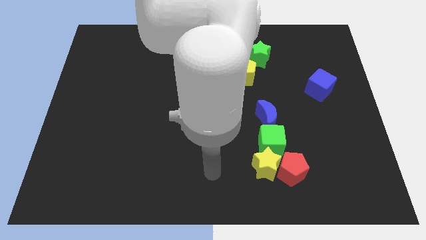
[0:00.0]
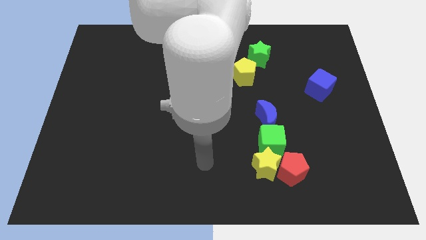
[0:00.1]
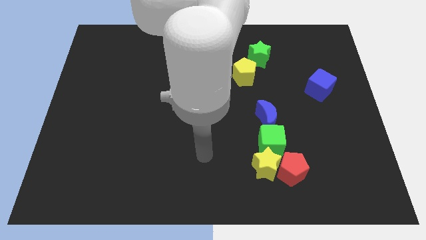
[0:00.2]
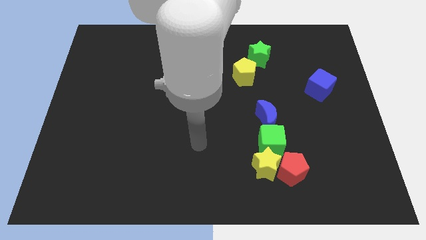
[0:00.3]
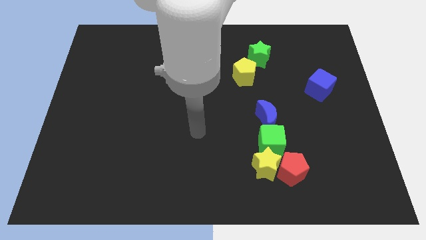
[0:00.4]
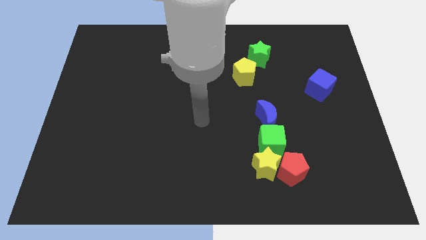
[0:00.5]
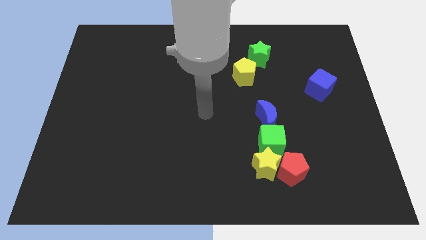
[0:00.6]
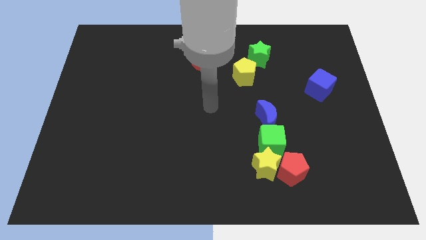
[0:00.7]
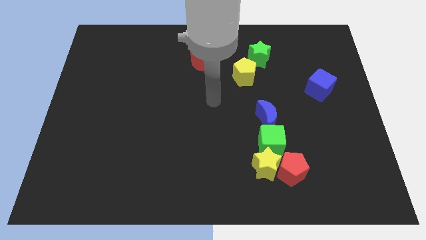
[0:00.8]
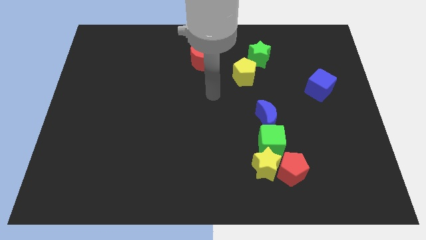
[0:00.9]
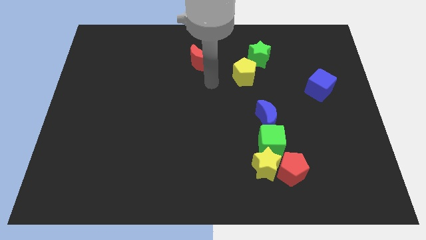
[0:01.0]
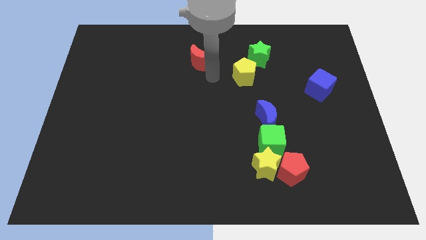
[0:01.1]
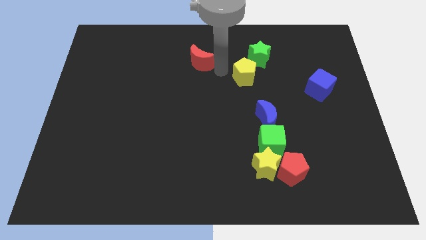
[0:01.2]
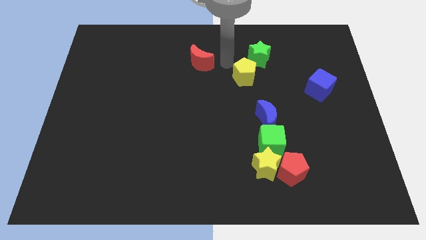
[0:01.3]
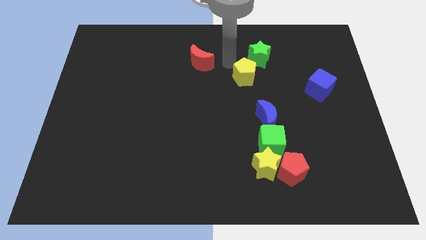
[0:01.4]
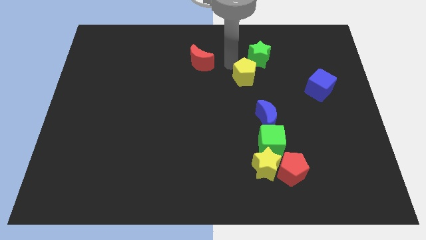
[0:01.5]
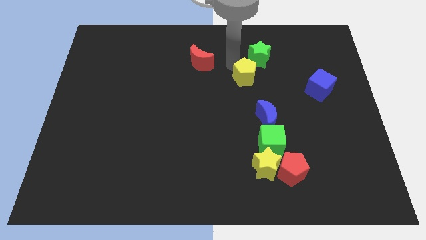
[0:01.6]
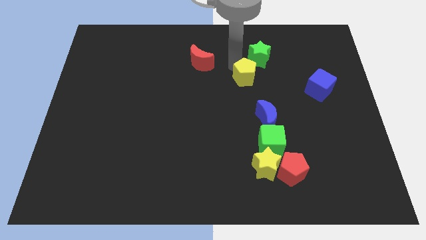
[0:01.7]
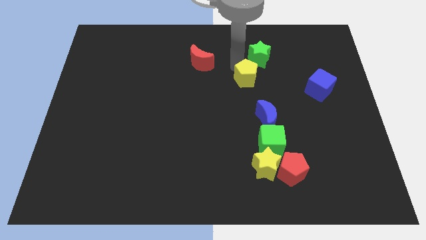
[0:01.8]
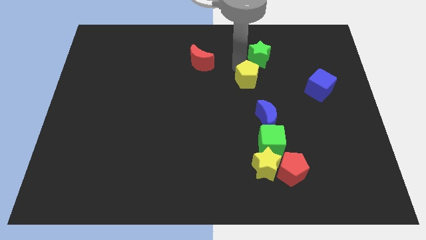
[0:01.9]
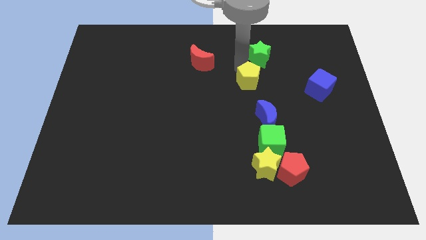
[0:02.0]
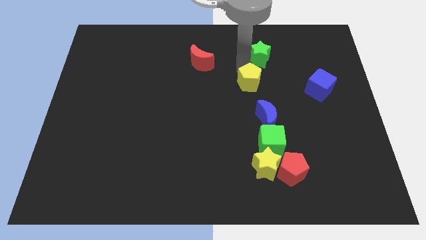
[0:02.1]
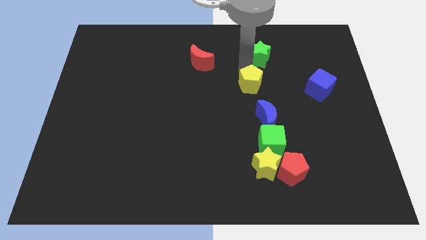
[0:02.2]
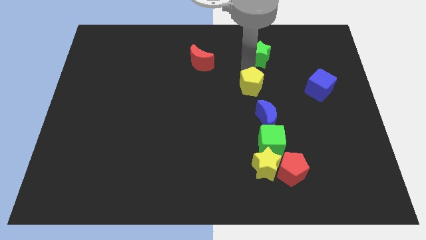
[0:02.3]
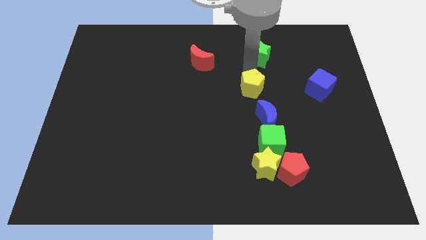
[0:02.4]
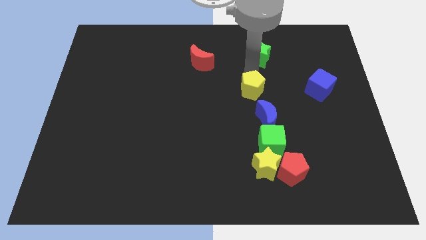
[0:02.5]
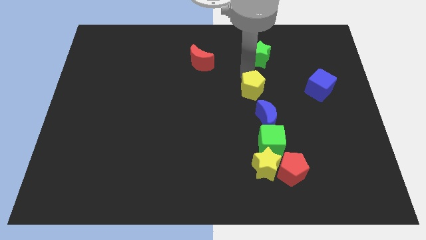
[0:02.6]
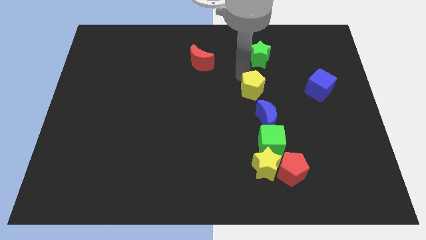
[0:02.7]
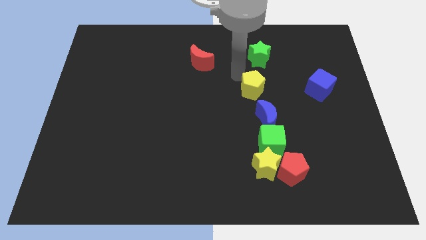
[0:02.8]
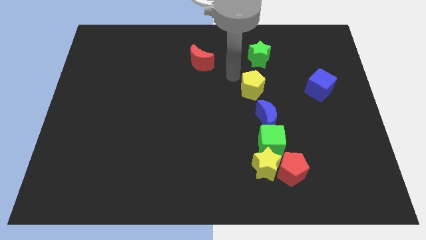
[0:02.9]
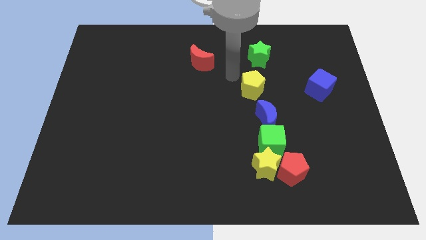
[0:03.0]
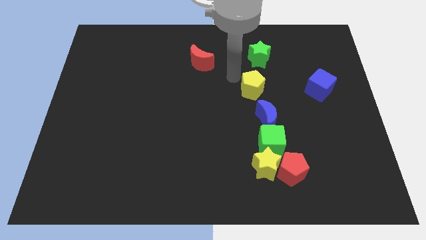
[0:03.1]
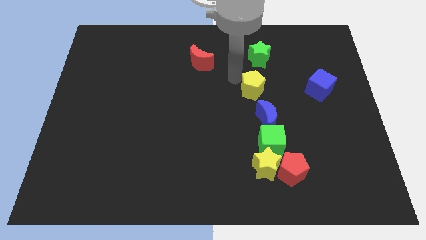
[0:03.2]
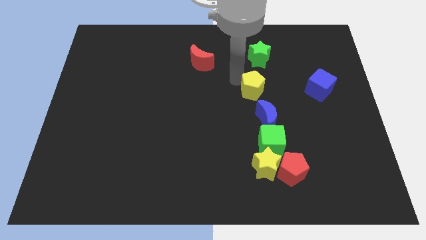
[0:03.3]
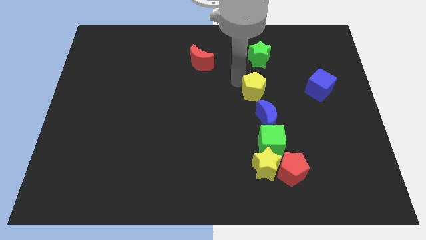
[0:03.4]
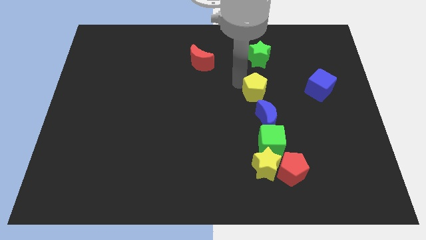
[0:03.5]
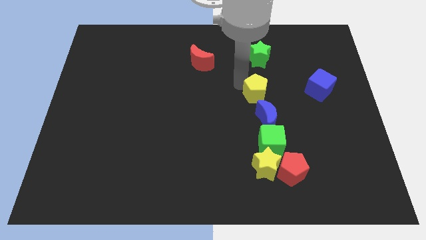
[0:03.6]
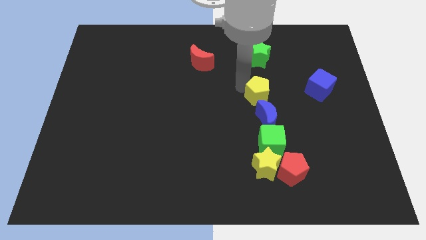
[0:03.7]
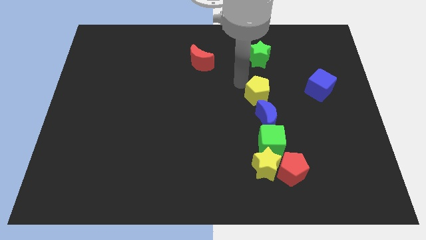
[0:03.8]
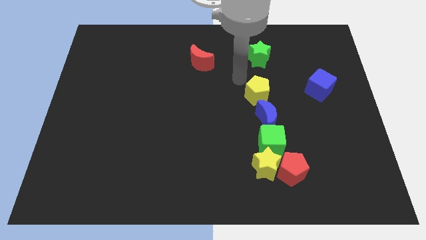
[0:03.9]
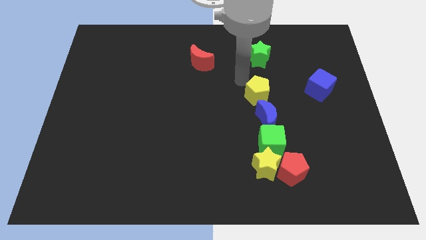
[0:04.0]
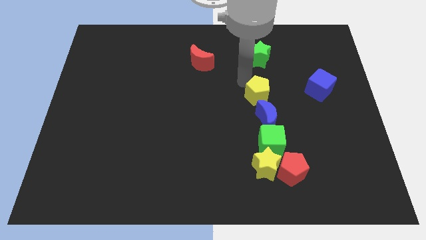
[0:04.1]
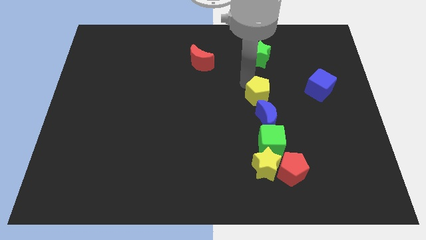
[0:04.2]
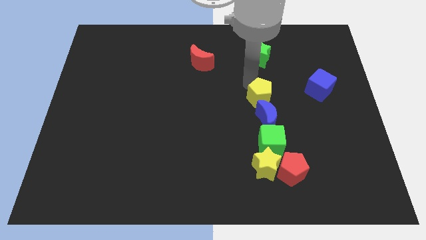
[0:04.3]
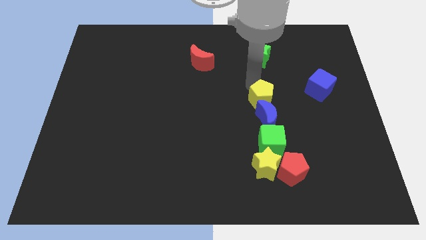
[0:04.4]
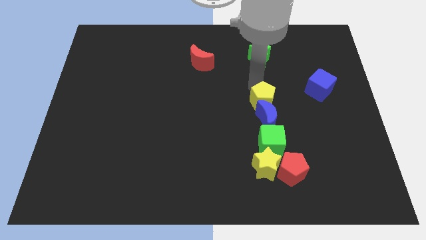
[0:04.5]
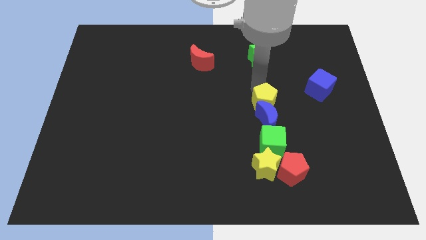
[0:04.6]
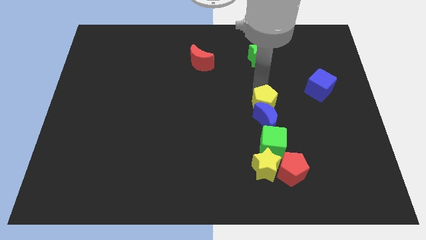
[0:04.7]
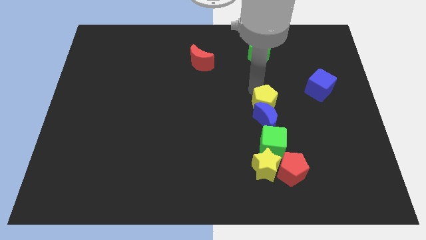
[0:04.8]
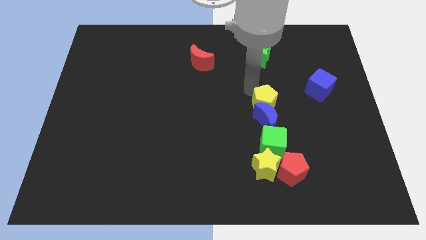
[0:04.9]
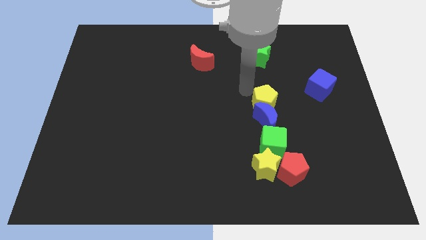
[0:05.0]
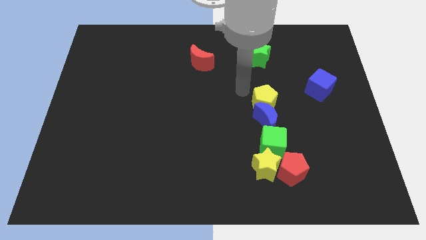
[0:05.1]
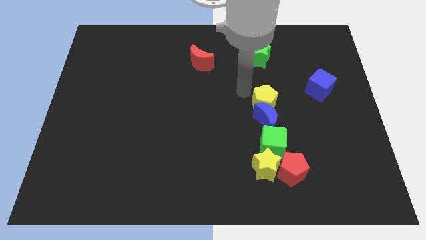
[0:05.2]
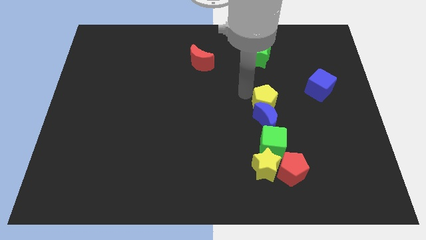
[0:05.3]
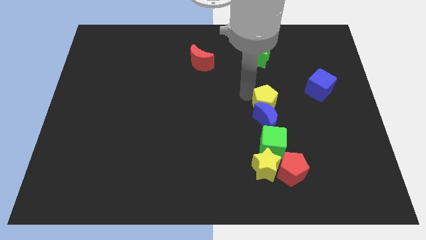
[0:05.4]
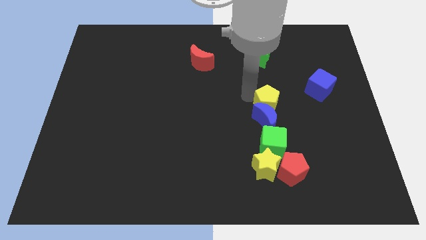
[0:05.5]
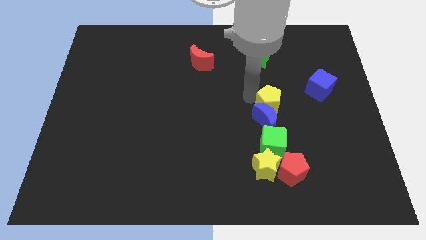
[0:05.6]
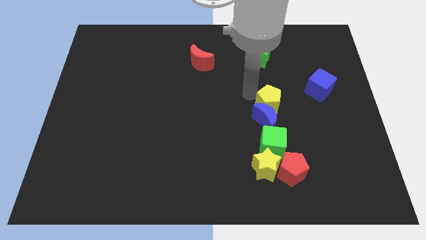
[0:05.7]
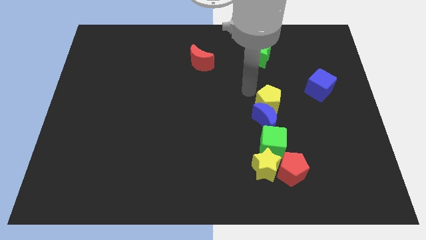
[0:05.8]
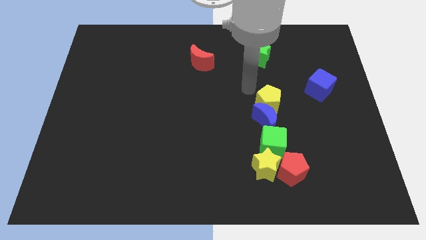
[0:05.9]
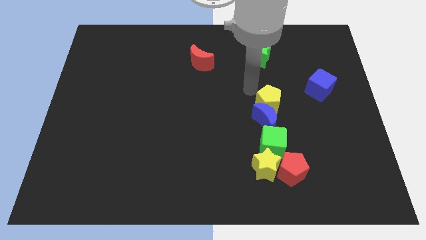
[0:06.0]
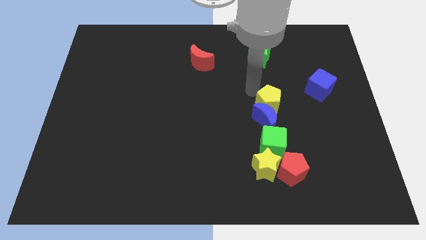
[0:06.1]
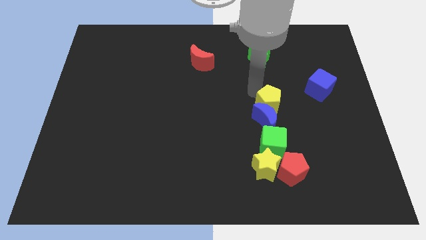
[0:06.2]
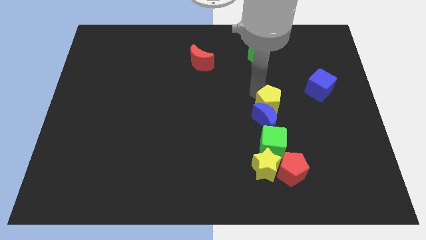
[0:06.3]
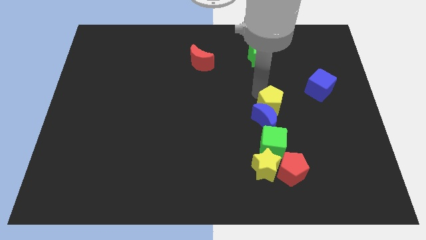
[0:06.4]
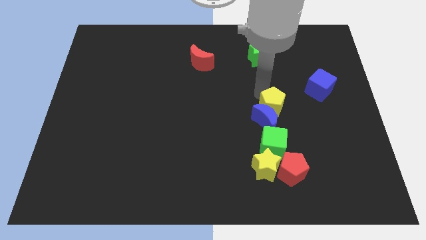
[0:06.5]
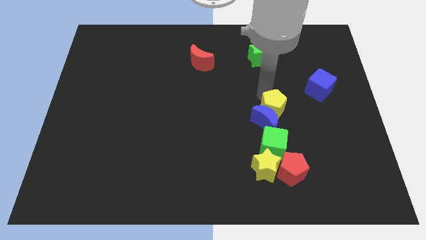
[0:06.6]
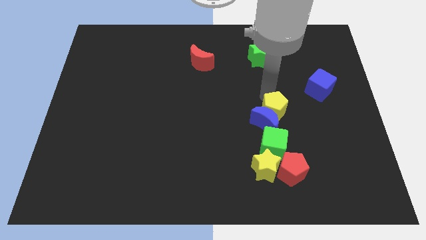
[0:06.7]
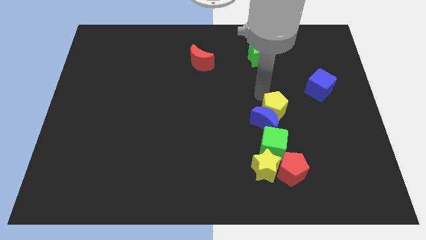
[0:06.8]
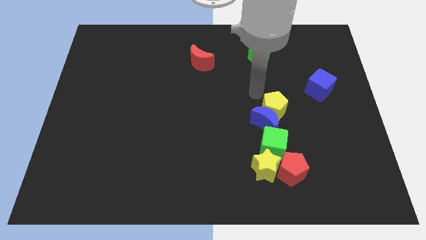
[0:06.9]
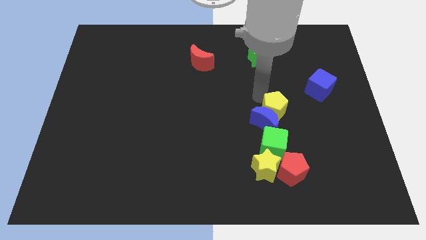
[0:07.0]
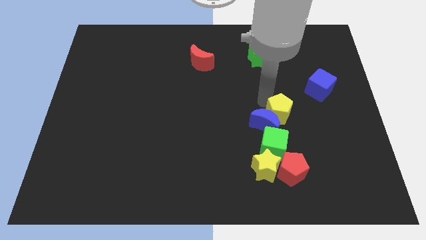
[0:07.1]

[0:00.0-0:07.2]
put the yellow pentagon to the top right of the green cube
